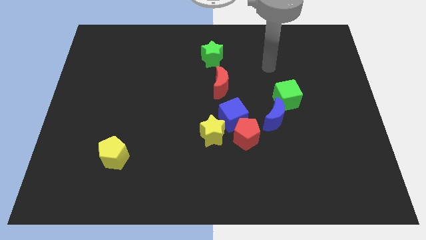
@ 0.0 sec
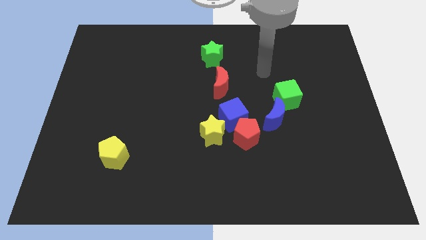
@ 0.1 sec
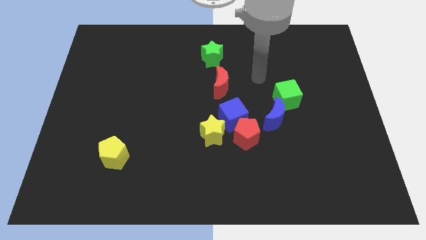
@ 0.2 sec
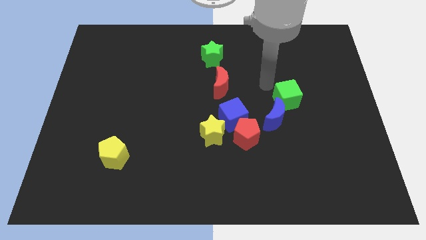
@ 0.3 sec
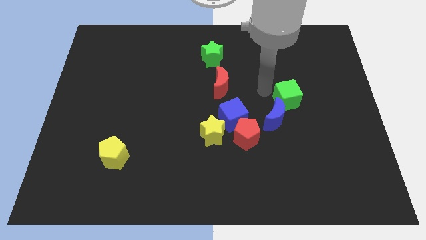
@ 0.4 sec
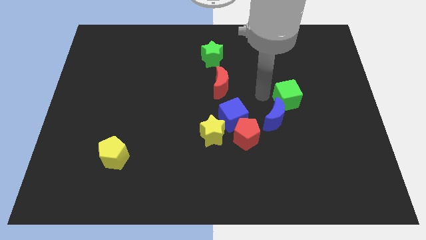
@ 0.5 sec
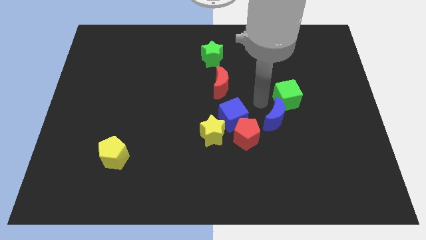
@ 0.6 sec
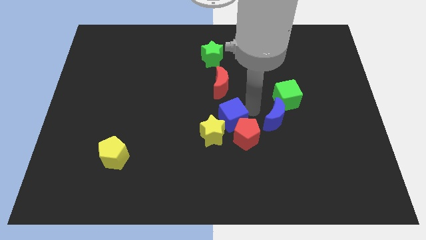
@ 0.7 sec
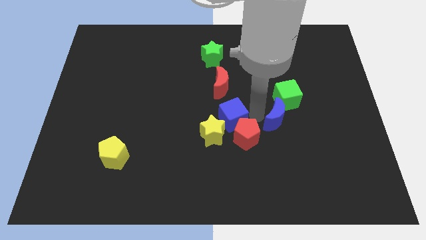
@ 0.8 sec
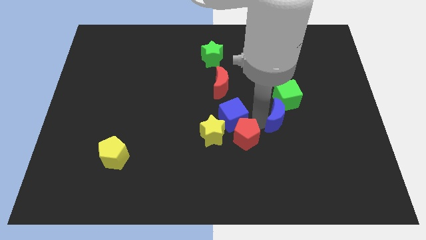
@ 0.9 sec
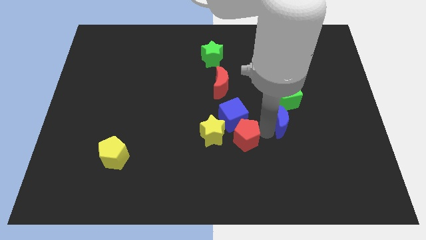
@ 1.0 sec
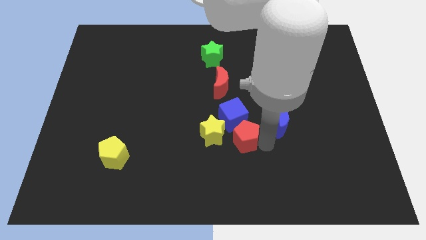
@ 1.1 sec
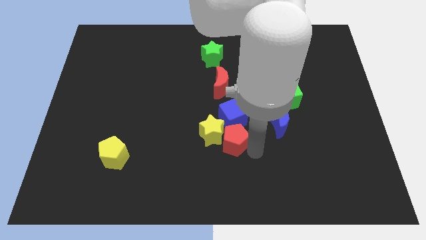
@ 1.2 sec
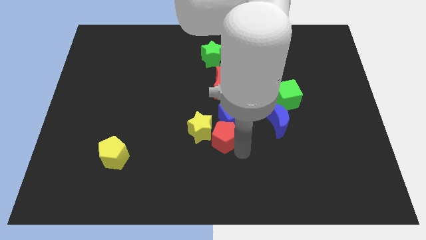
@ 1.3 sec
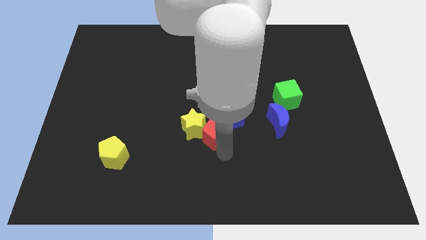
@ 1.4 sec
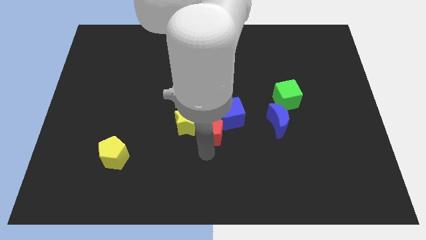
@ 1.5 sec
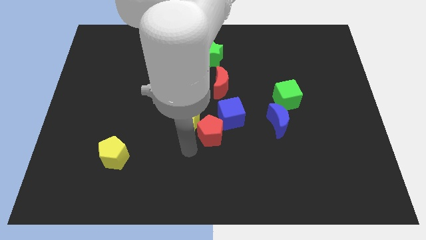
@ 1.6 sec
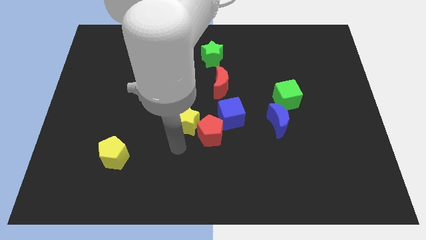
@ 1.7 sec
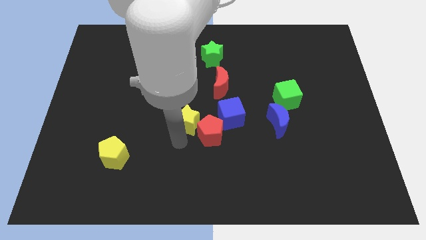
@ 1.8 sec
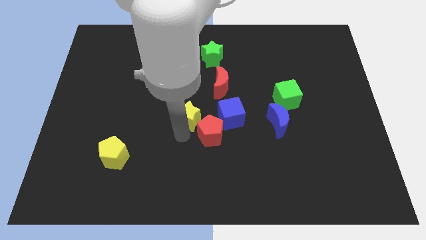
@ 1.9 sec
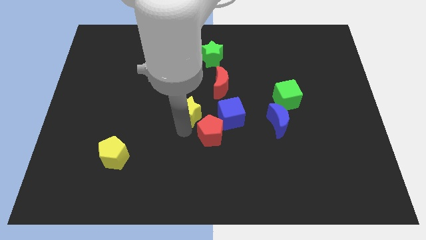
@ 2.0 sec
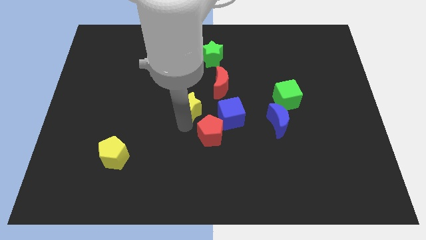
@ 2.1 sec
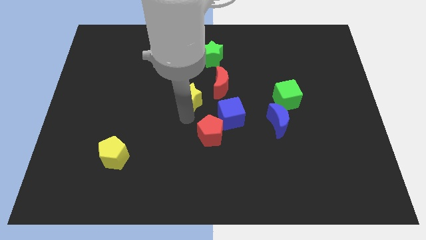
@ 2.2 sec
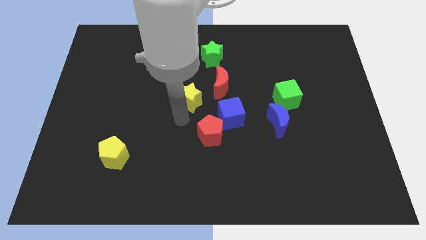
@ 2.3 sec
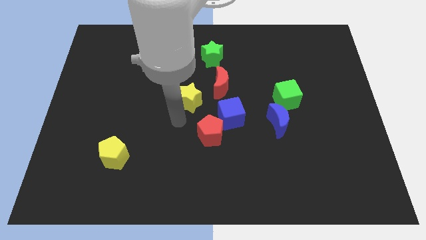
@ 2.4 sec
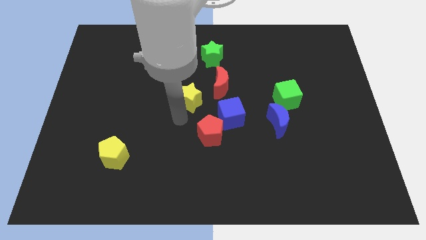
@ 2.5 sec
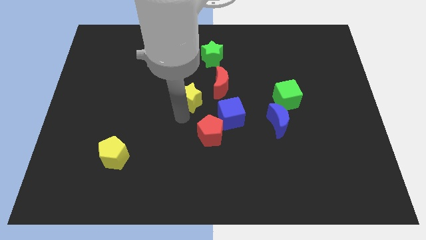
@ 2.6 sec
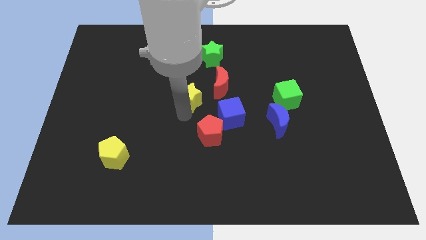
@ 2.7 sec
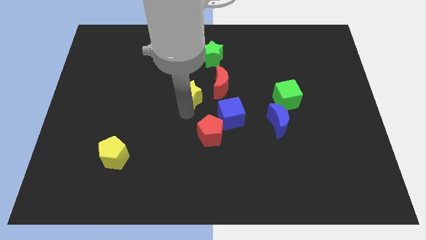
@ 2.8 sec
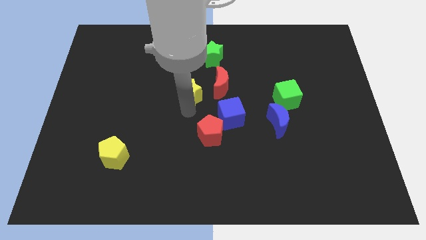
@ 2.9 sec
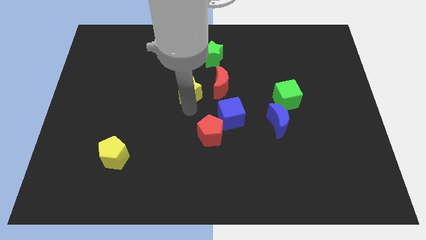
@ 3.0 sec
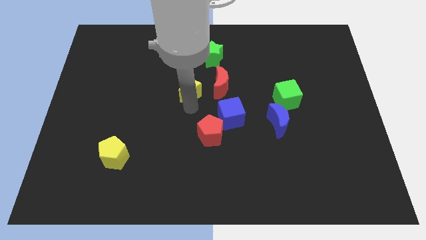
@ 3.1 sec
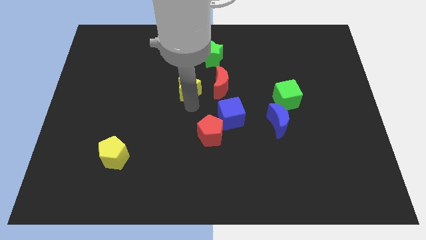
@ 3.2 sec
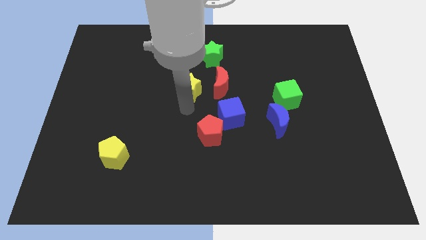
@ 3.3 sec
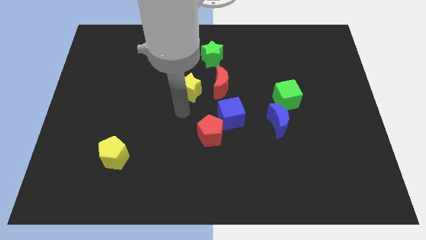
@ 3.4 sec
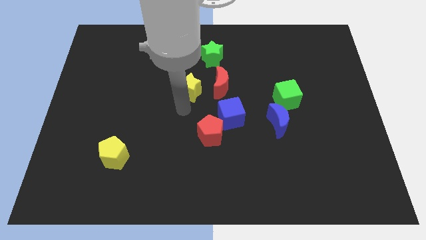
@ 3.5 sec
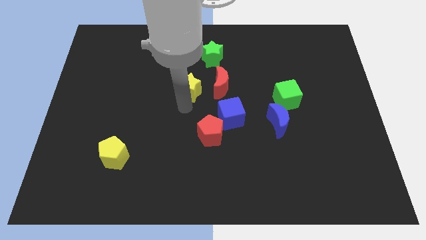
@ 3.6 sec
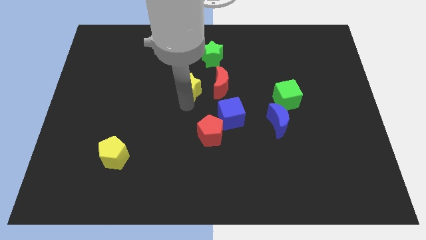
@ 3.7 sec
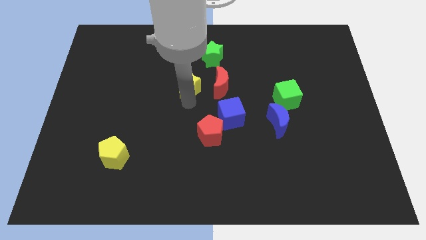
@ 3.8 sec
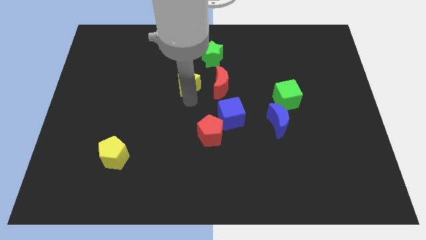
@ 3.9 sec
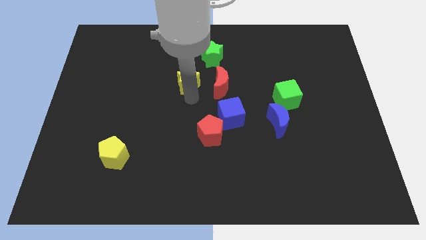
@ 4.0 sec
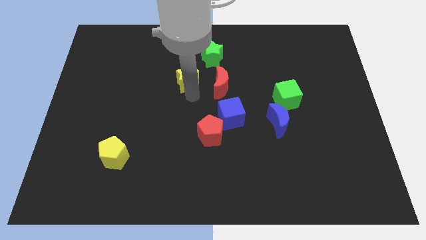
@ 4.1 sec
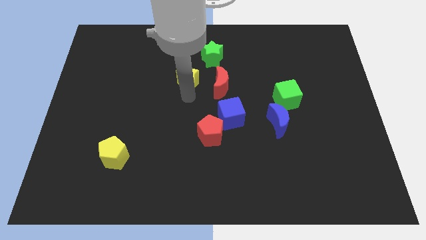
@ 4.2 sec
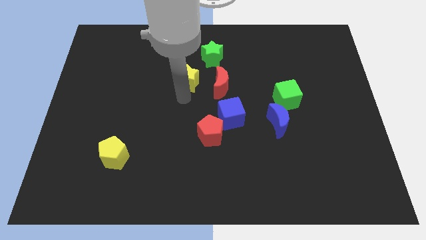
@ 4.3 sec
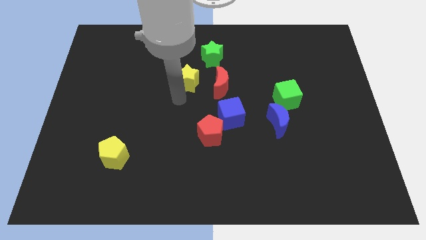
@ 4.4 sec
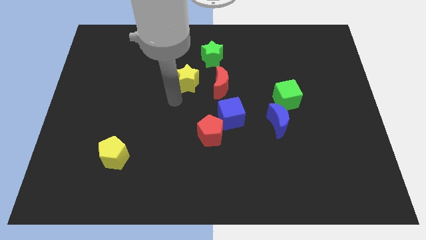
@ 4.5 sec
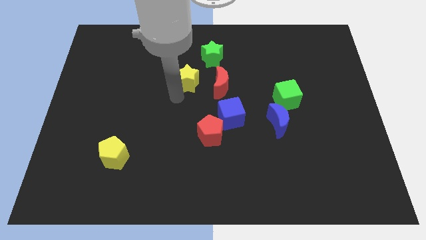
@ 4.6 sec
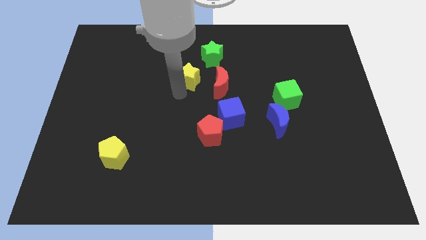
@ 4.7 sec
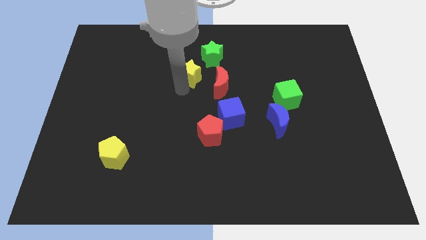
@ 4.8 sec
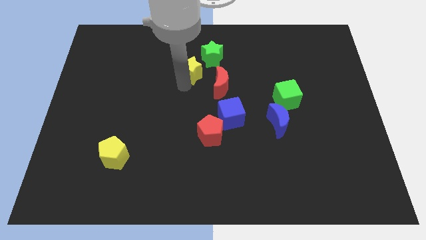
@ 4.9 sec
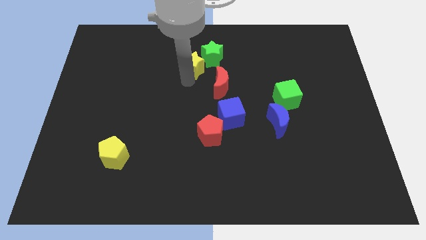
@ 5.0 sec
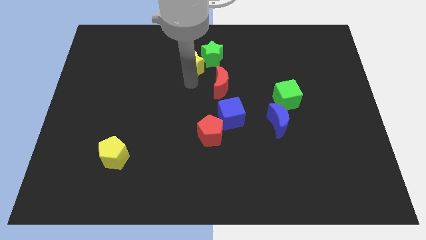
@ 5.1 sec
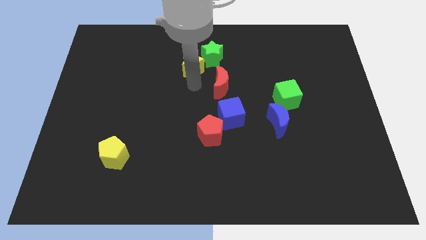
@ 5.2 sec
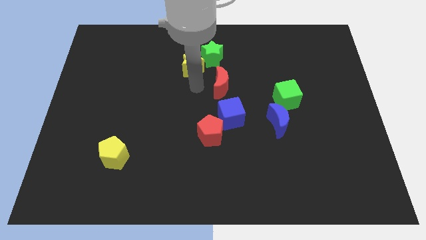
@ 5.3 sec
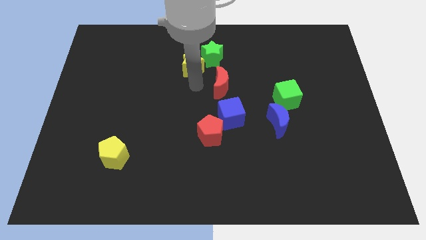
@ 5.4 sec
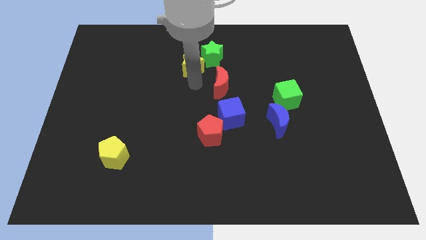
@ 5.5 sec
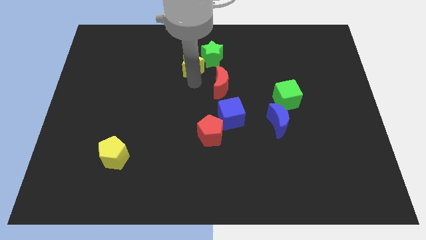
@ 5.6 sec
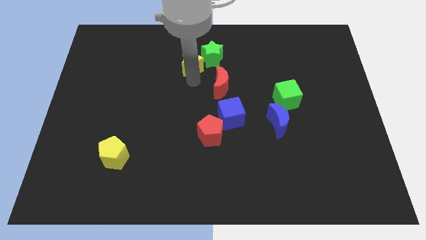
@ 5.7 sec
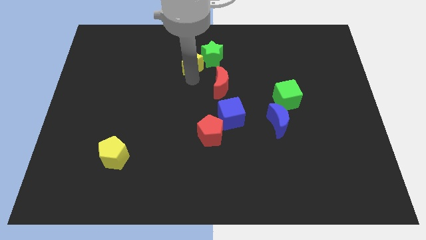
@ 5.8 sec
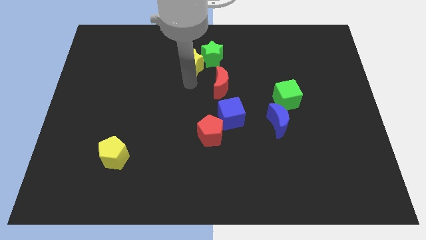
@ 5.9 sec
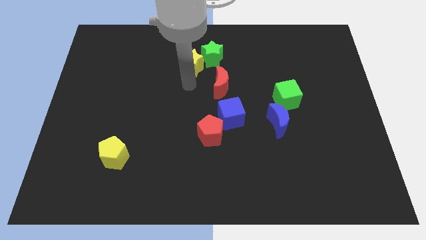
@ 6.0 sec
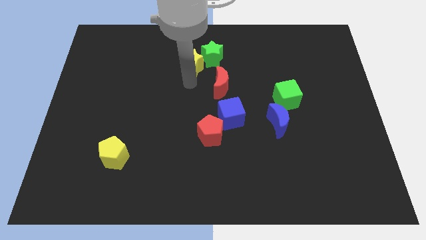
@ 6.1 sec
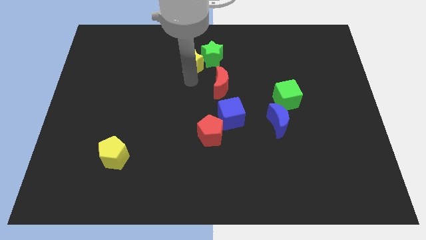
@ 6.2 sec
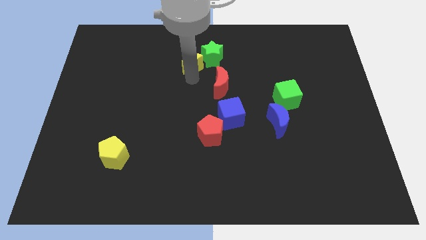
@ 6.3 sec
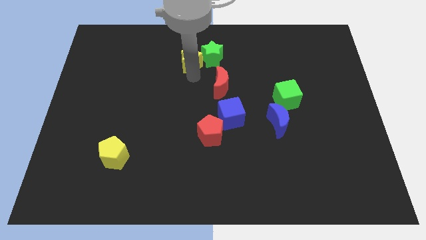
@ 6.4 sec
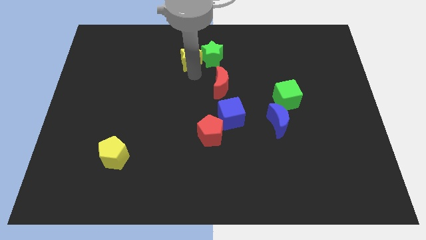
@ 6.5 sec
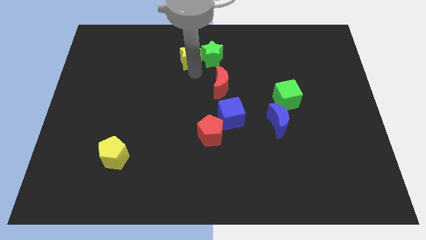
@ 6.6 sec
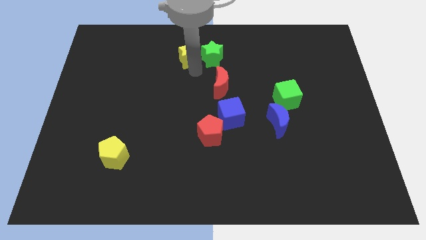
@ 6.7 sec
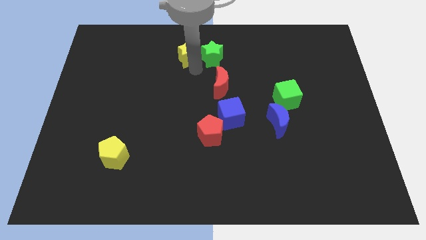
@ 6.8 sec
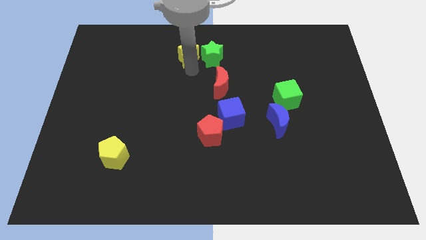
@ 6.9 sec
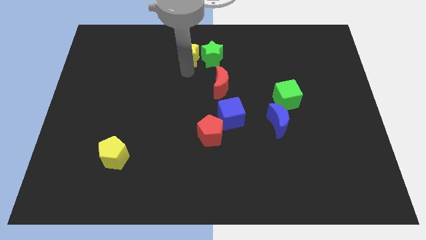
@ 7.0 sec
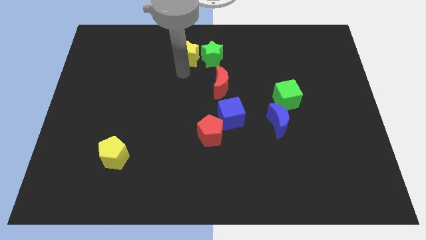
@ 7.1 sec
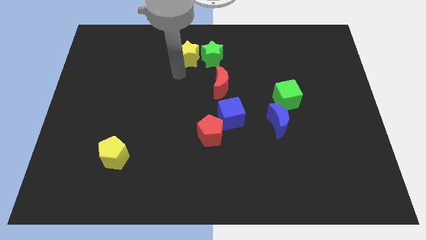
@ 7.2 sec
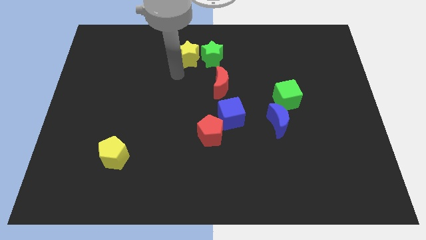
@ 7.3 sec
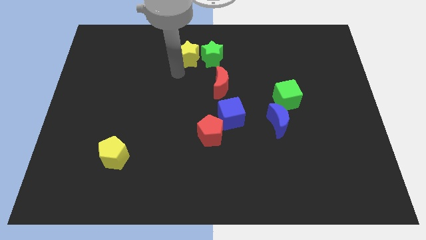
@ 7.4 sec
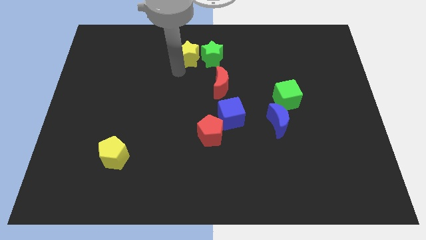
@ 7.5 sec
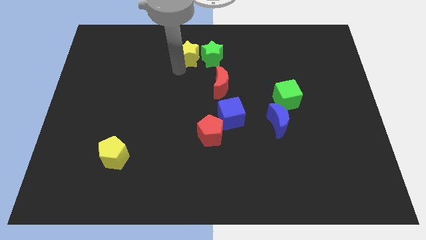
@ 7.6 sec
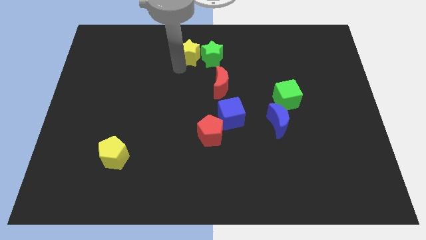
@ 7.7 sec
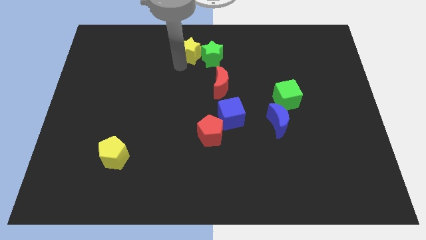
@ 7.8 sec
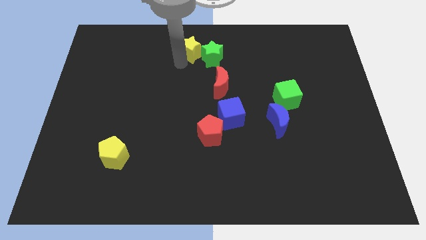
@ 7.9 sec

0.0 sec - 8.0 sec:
move the yellow star to the top side
